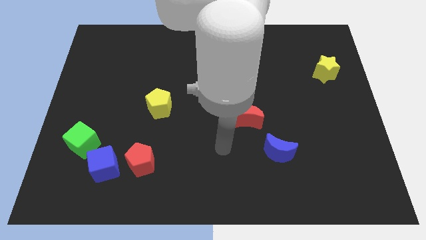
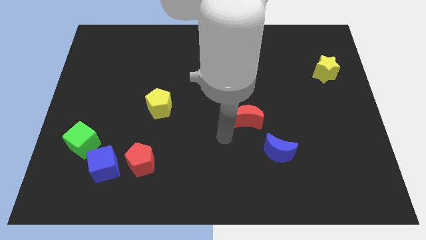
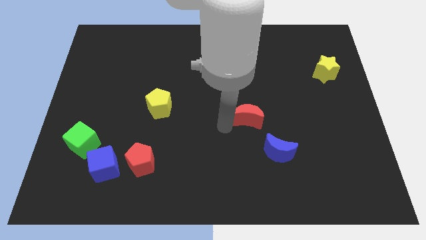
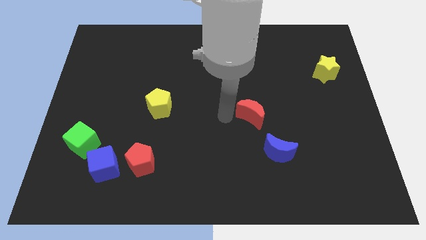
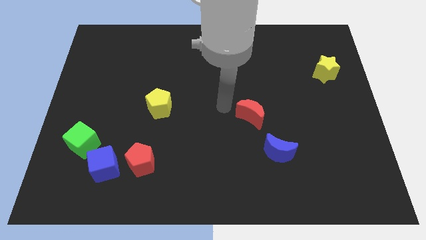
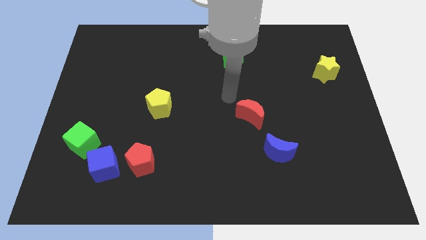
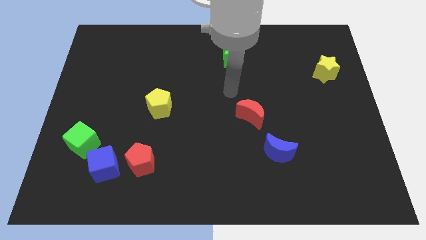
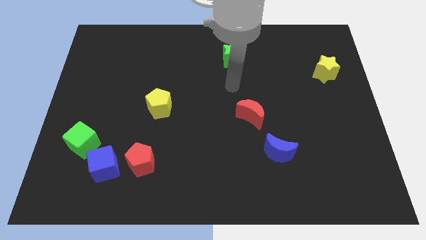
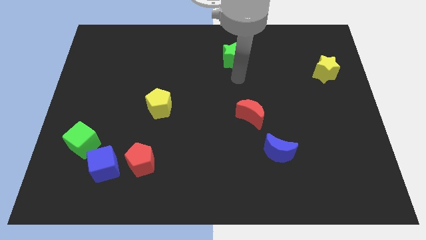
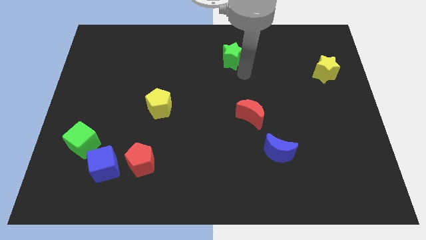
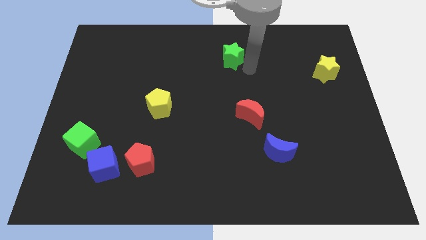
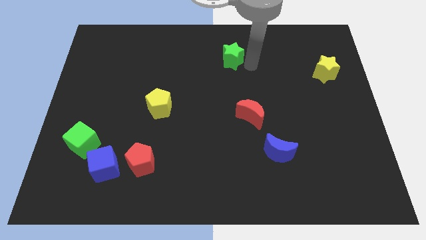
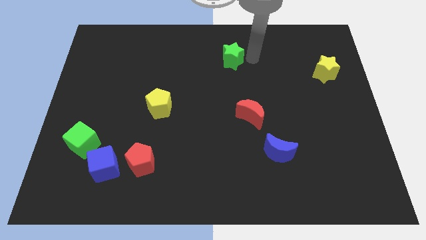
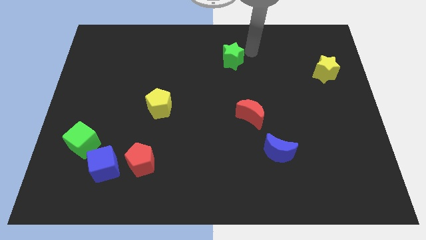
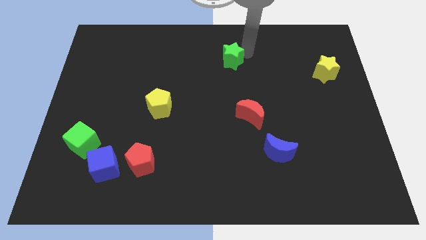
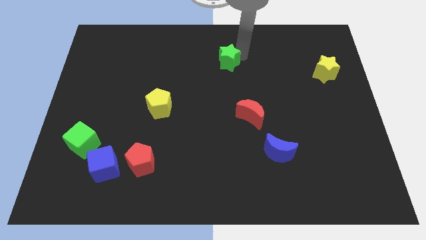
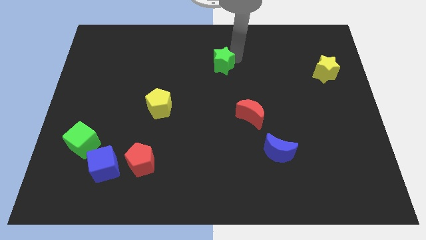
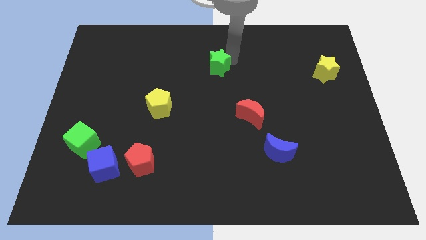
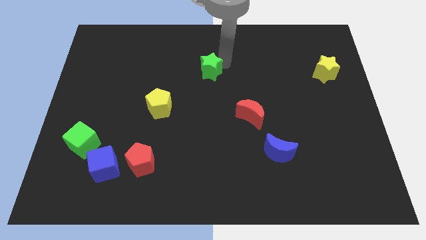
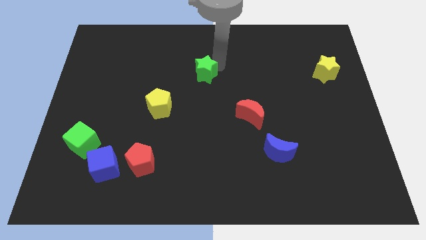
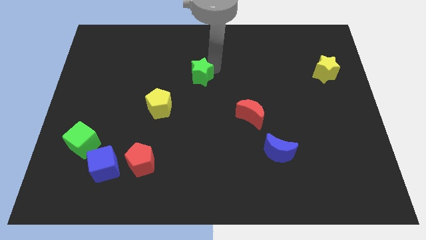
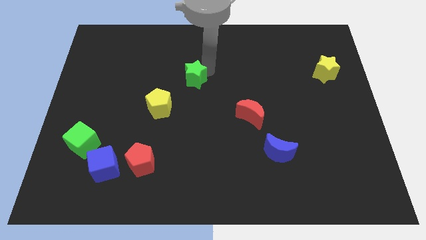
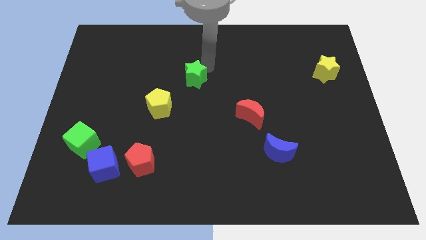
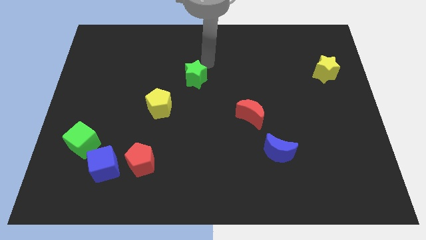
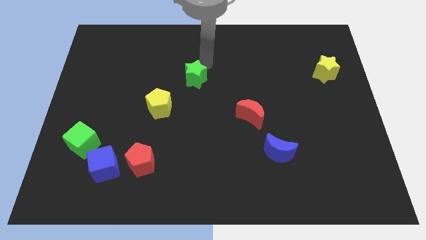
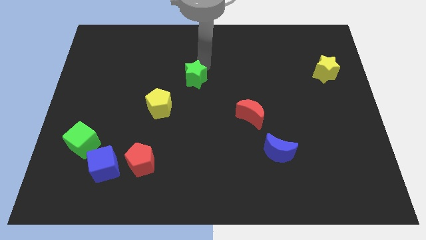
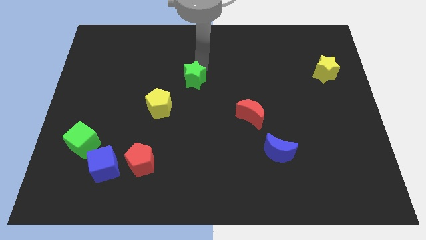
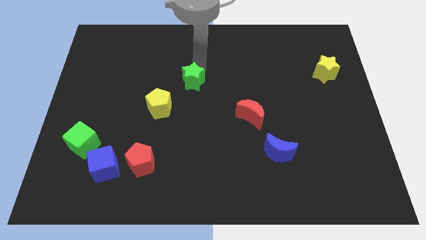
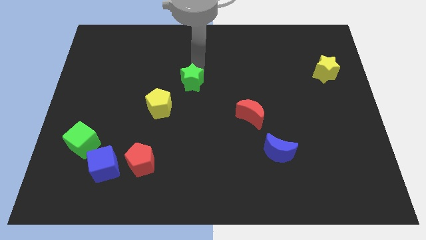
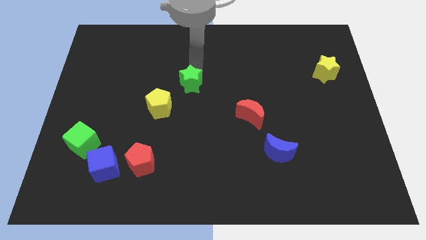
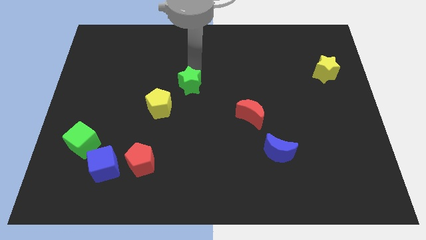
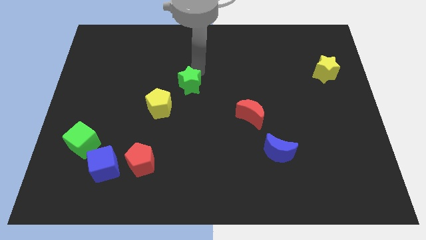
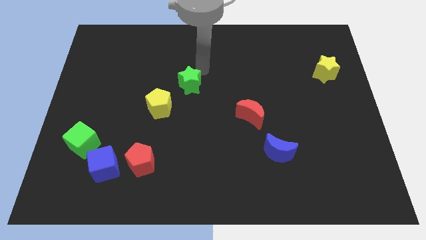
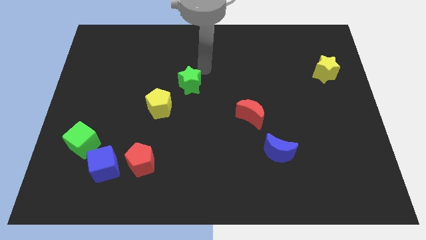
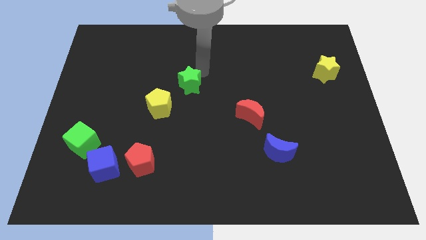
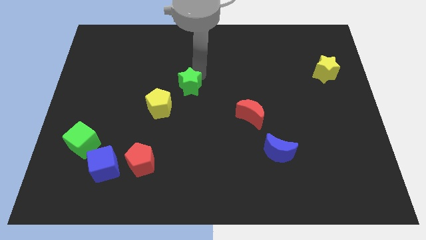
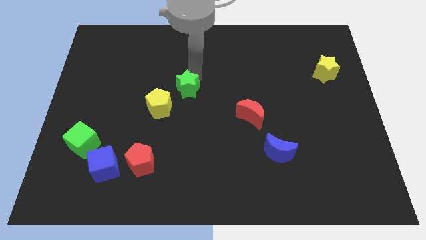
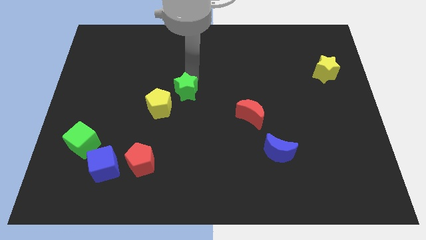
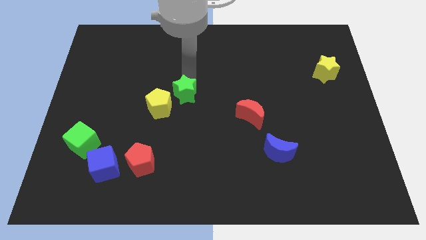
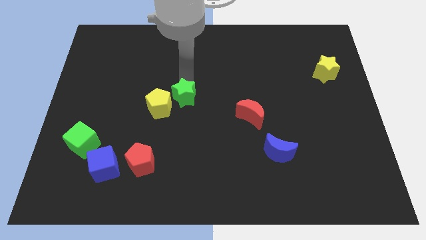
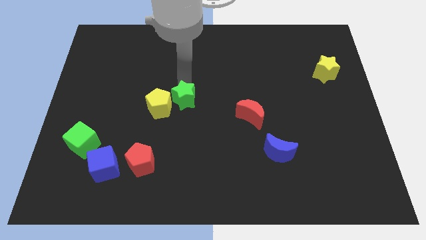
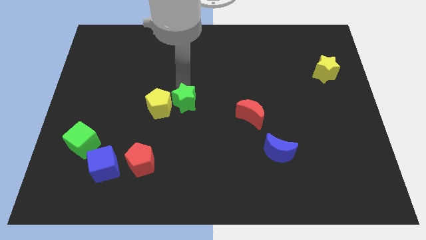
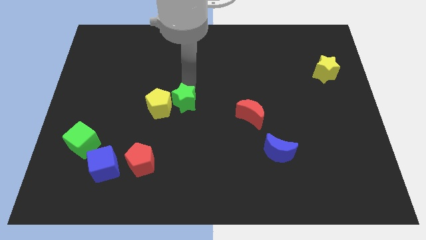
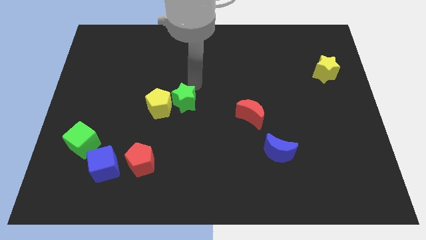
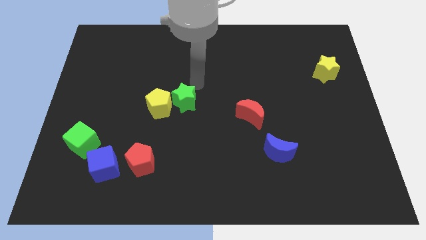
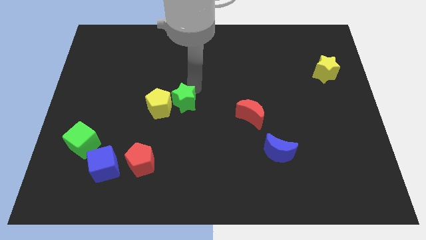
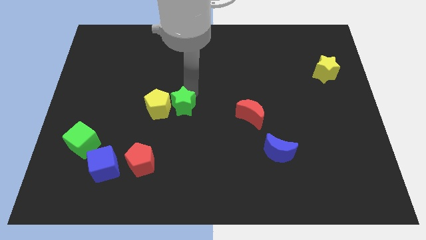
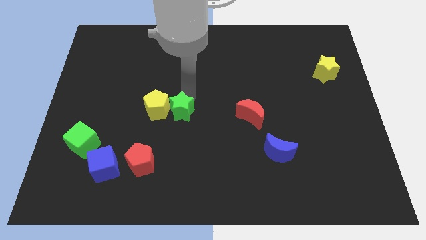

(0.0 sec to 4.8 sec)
move the green star down and left

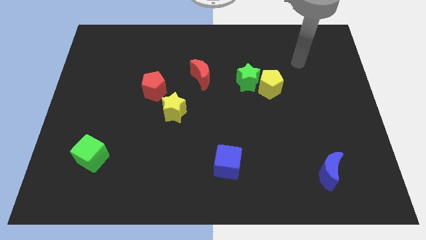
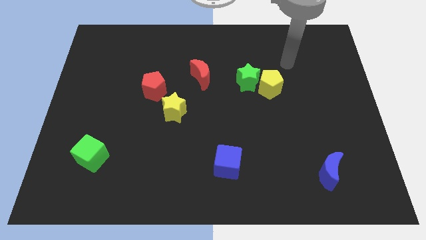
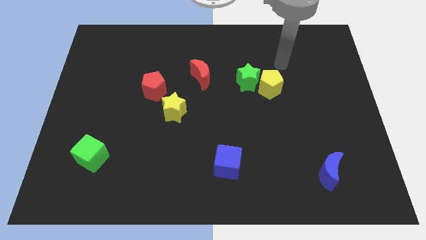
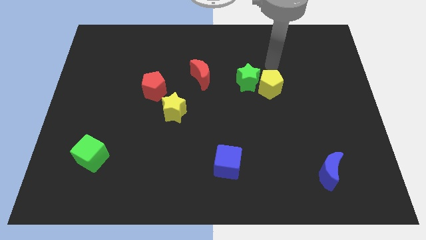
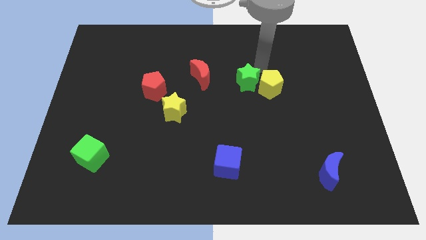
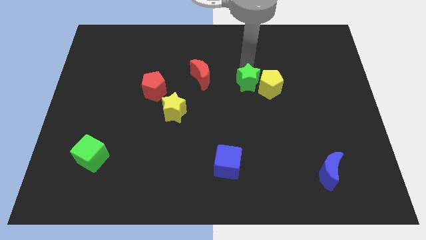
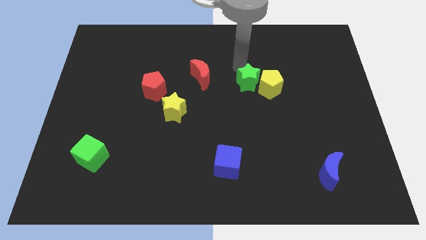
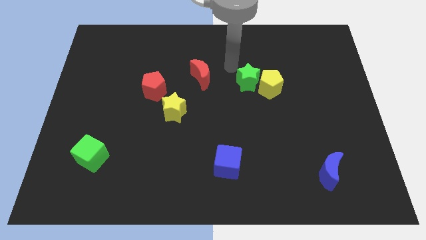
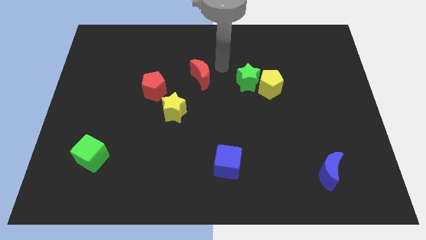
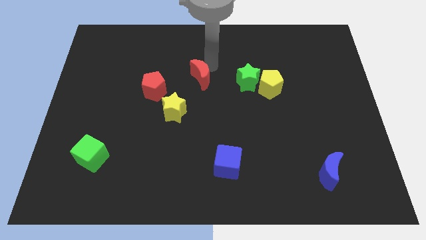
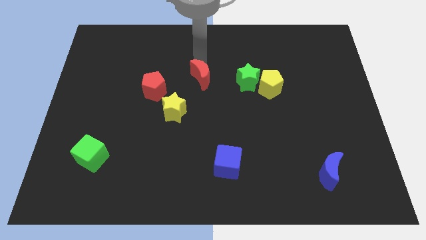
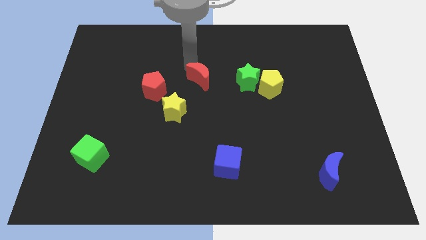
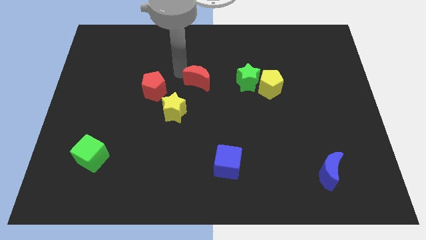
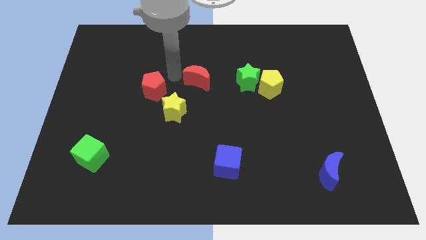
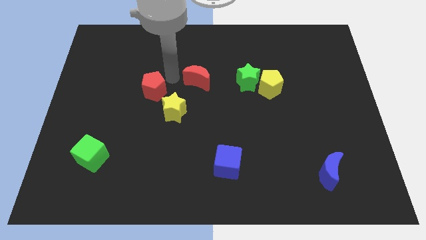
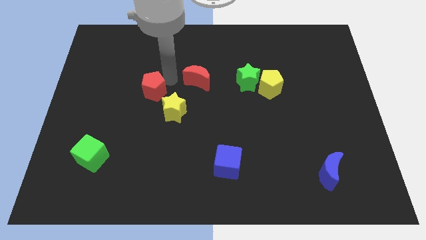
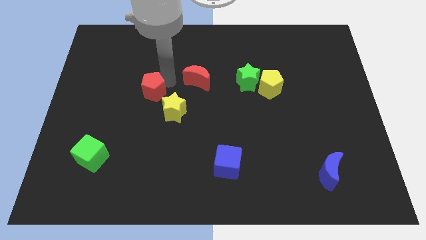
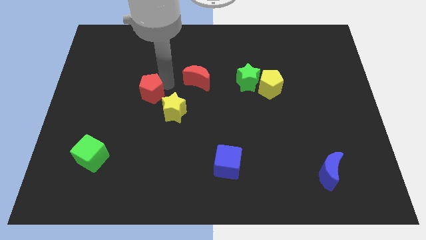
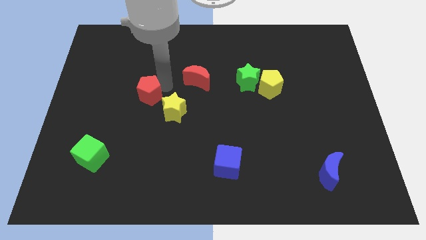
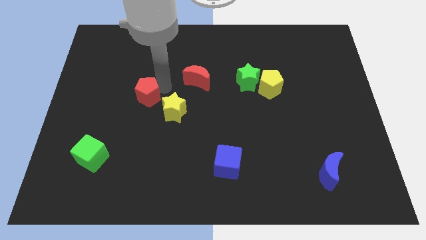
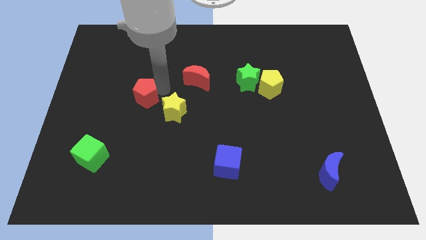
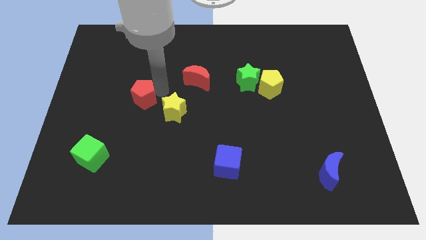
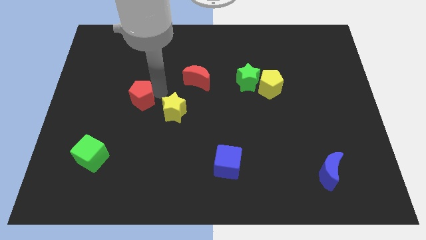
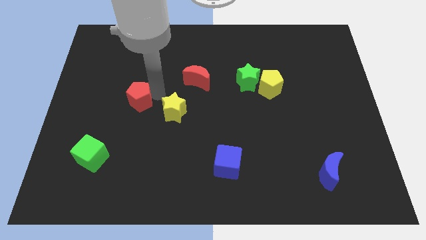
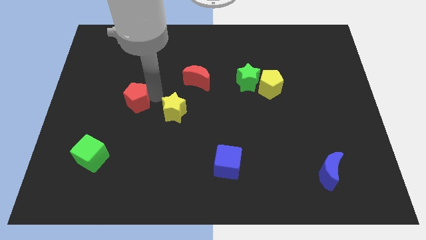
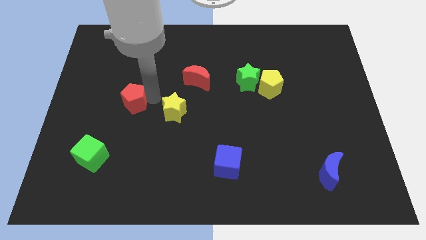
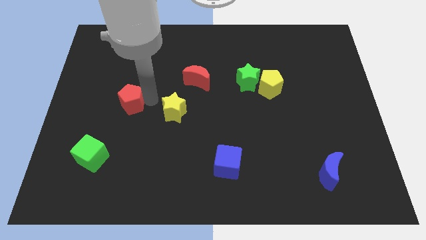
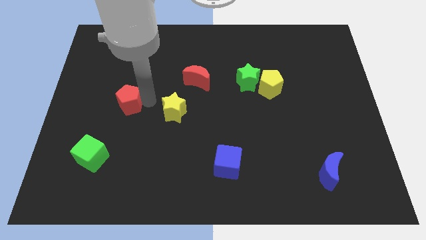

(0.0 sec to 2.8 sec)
slightly slide the red pentagon diagonally downwards and left

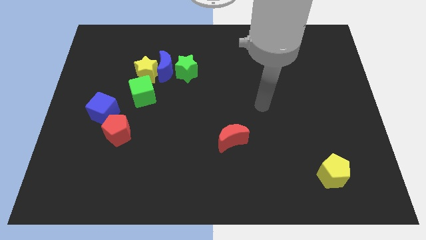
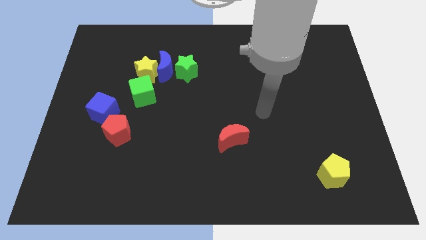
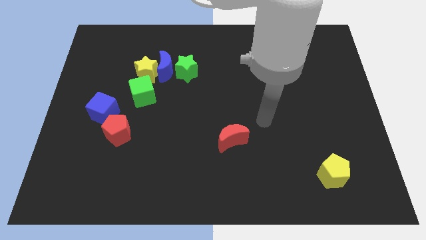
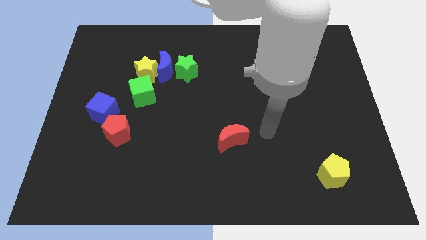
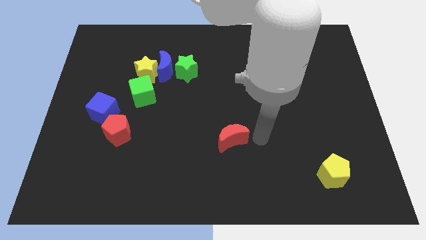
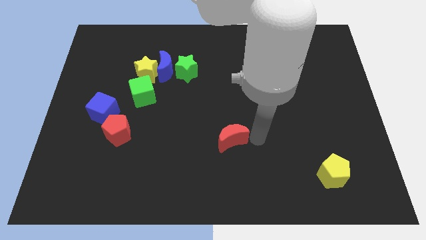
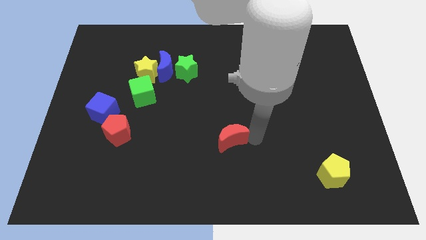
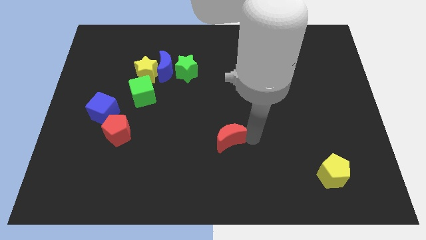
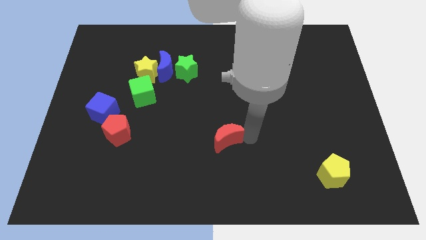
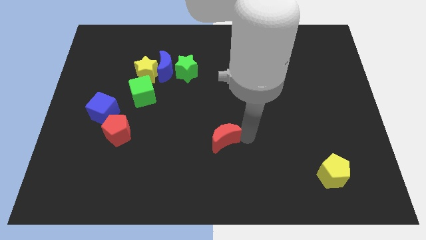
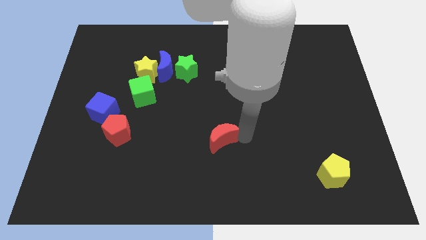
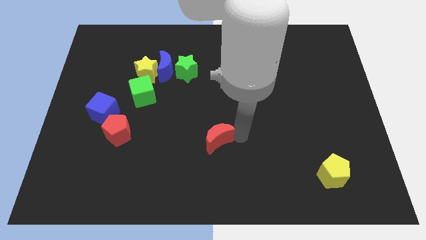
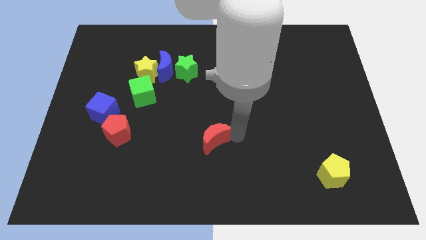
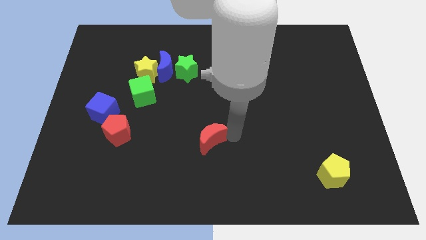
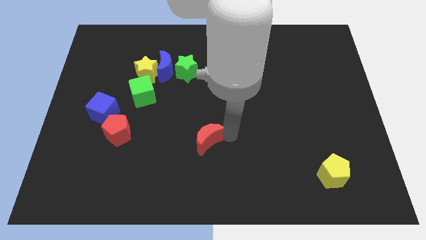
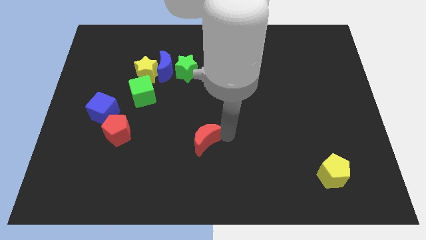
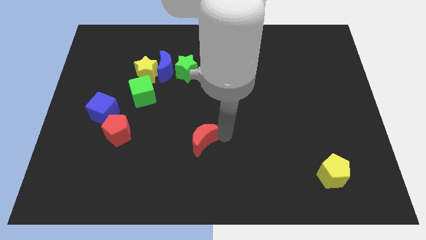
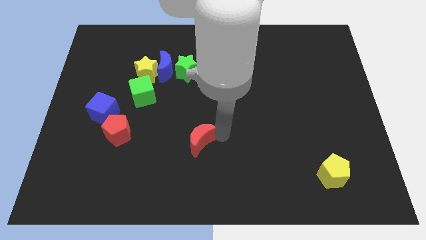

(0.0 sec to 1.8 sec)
slightly move the red moon left
